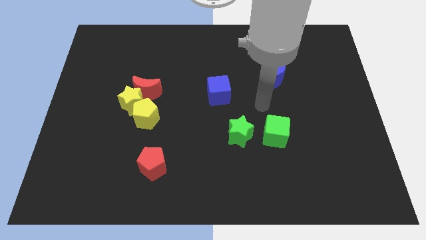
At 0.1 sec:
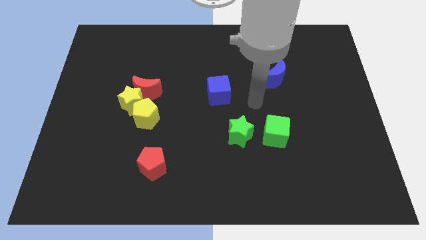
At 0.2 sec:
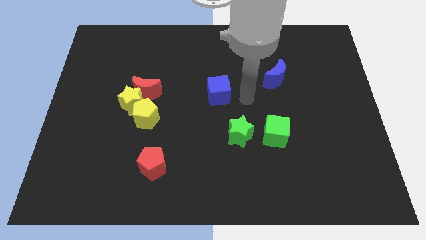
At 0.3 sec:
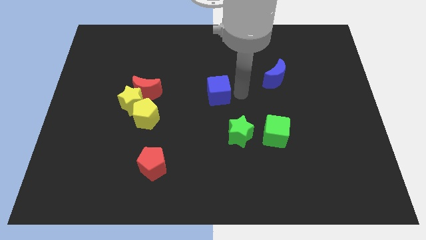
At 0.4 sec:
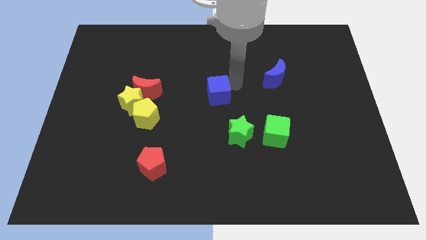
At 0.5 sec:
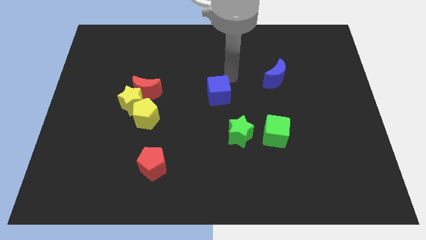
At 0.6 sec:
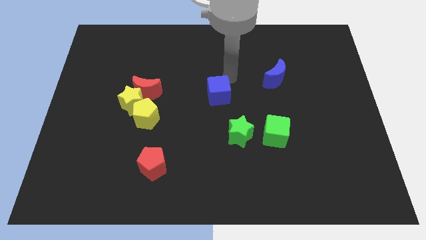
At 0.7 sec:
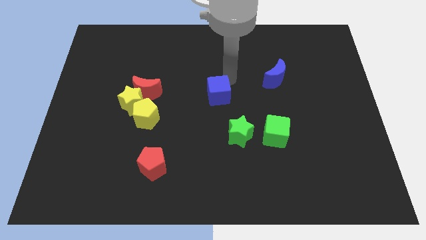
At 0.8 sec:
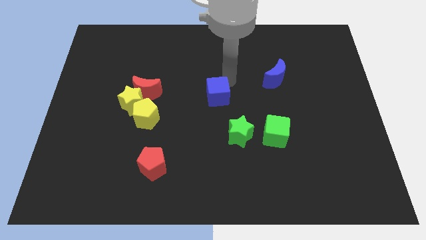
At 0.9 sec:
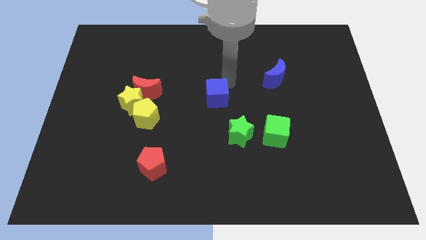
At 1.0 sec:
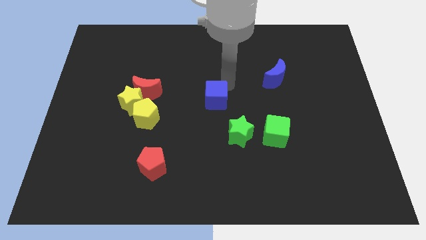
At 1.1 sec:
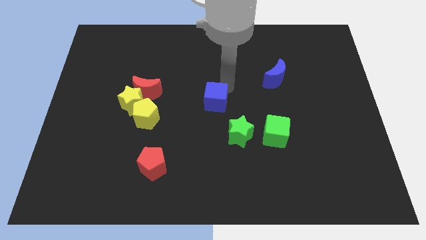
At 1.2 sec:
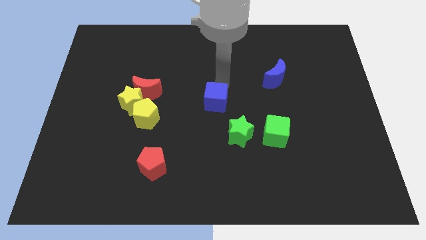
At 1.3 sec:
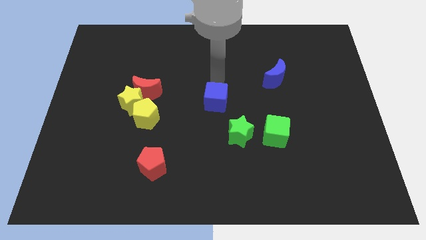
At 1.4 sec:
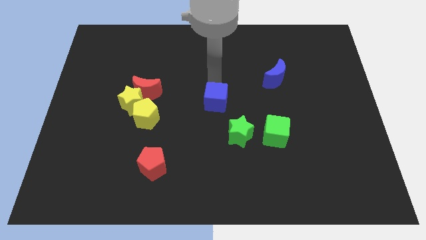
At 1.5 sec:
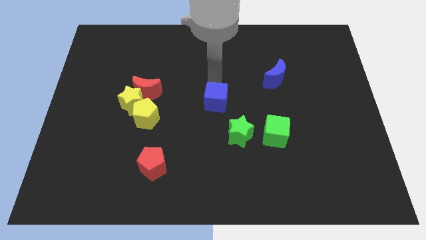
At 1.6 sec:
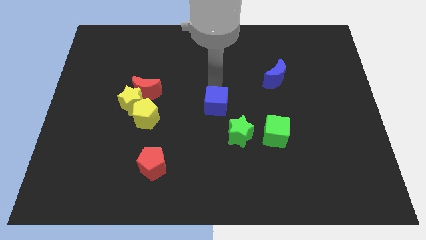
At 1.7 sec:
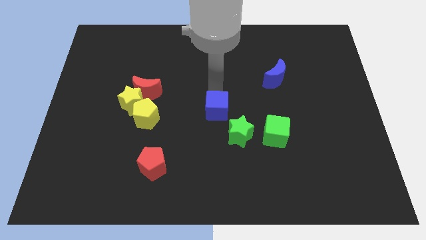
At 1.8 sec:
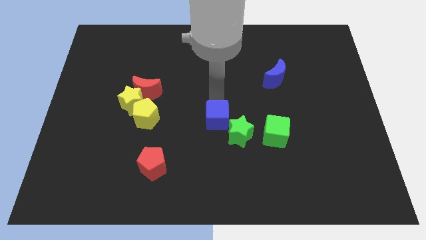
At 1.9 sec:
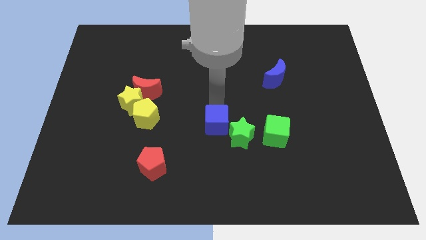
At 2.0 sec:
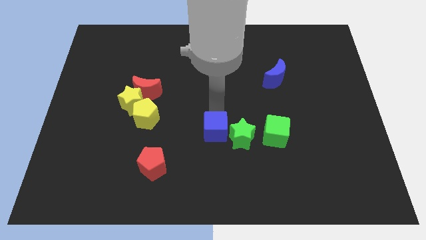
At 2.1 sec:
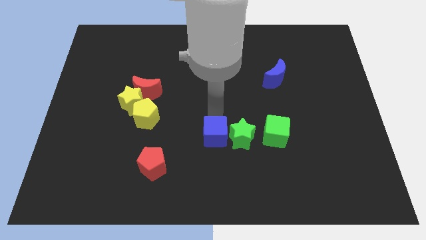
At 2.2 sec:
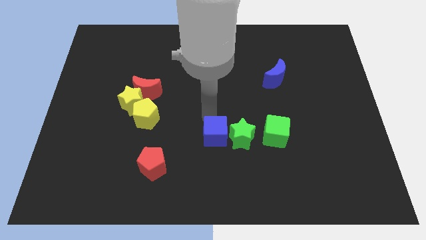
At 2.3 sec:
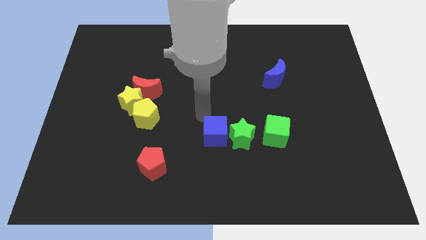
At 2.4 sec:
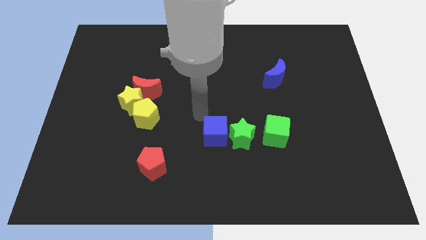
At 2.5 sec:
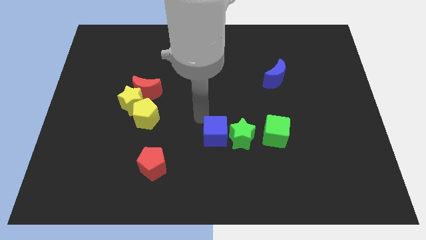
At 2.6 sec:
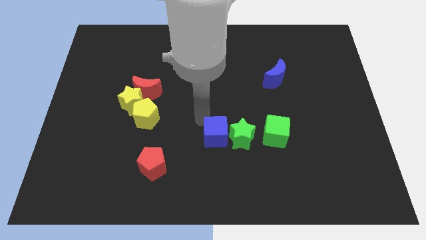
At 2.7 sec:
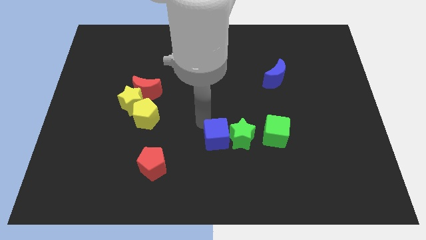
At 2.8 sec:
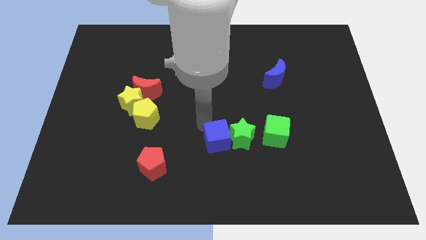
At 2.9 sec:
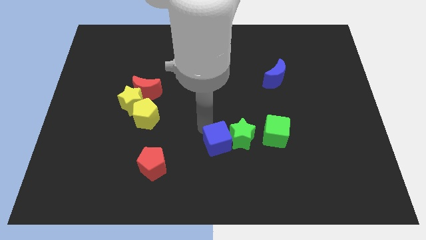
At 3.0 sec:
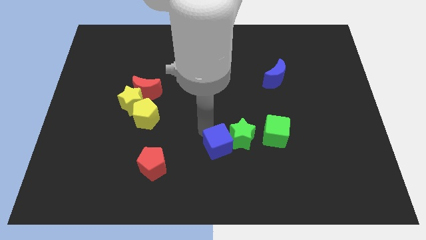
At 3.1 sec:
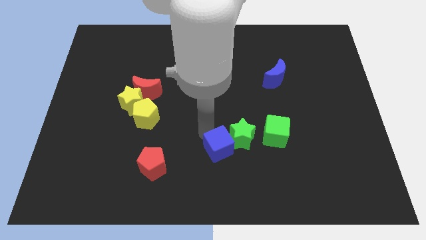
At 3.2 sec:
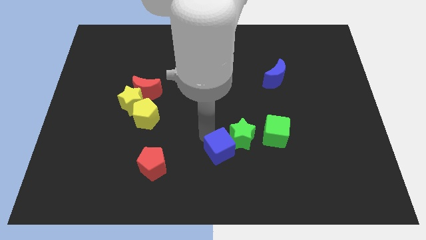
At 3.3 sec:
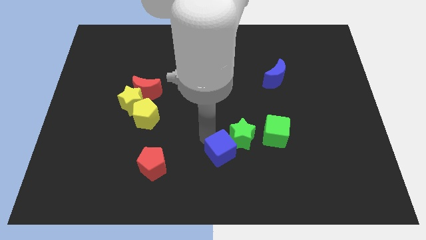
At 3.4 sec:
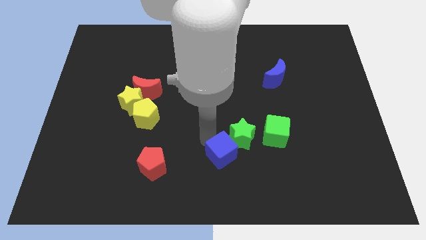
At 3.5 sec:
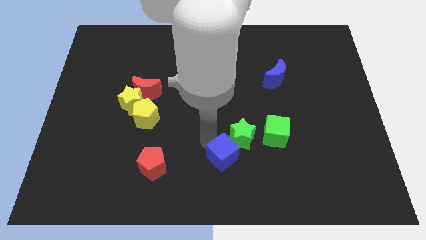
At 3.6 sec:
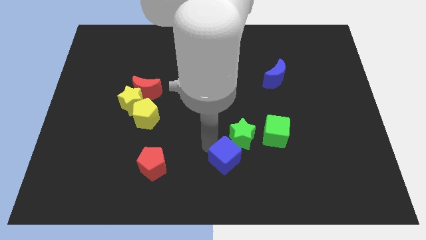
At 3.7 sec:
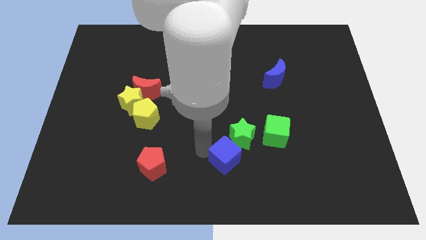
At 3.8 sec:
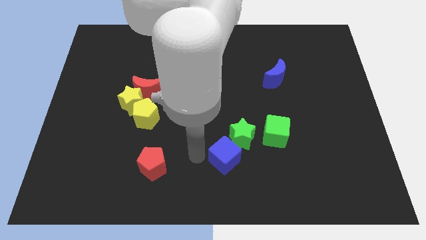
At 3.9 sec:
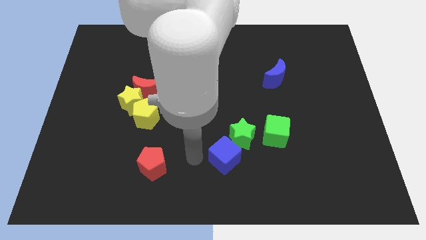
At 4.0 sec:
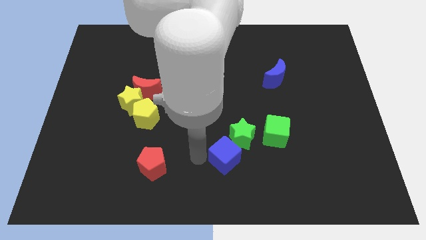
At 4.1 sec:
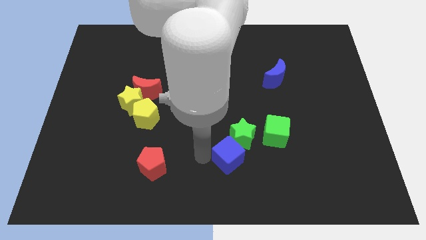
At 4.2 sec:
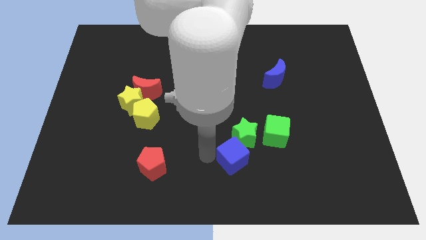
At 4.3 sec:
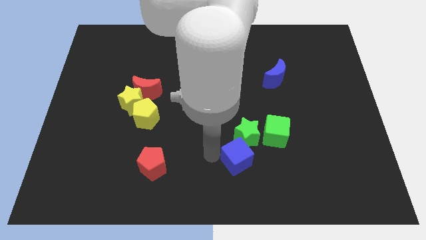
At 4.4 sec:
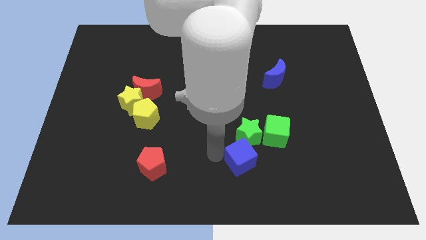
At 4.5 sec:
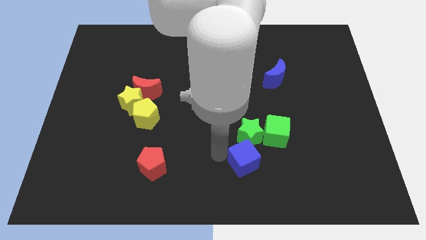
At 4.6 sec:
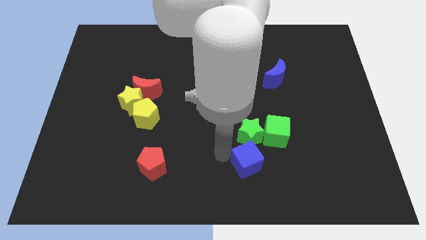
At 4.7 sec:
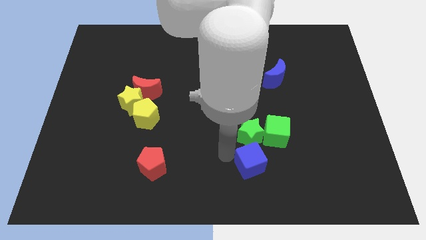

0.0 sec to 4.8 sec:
slide the blue cube to the bottom right of the green star

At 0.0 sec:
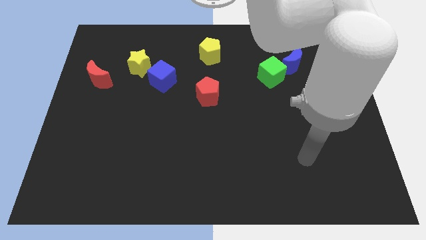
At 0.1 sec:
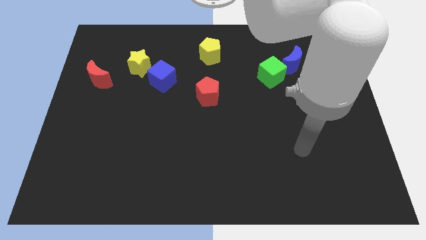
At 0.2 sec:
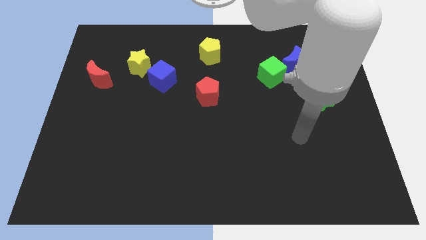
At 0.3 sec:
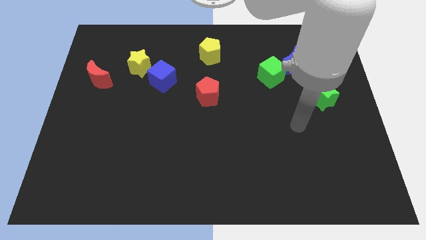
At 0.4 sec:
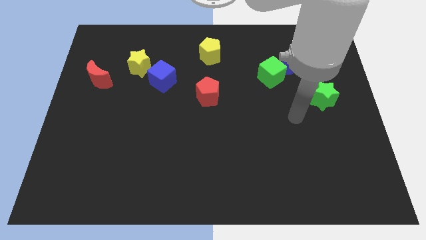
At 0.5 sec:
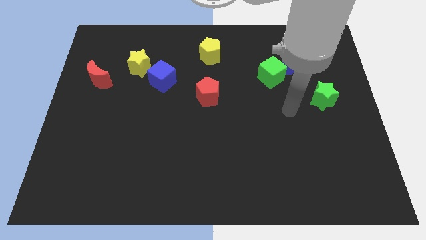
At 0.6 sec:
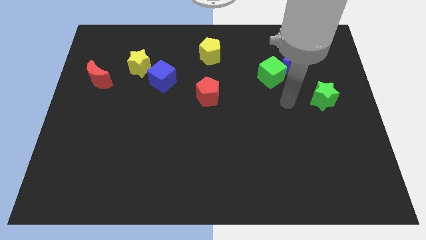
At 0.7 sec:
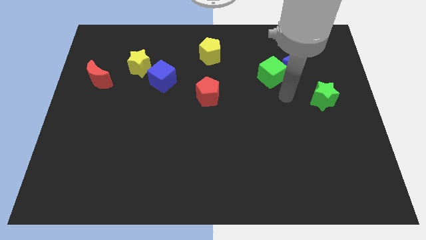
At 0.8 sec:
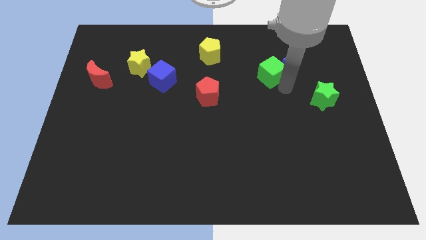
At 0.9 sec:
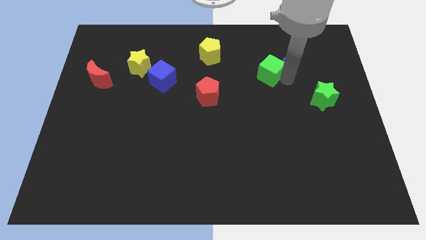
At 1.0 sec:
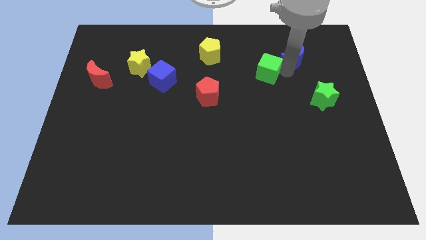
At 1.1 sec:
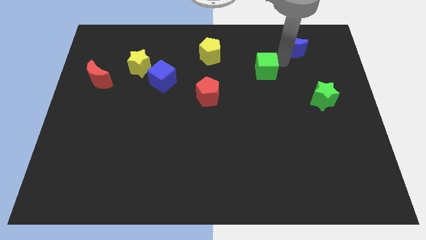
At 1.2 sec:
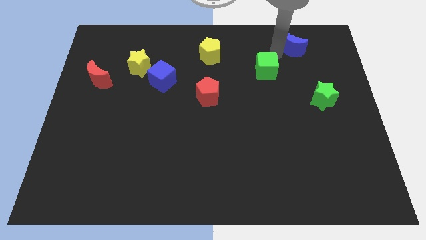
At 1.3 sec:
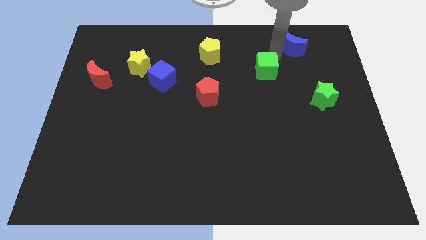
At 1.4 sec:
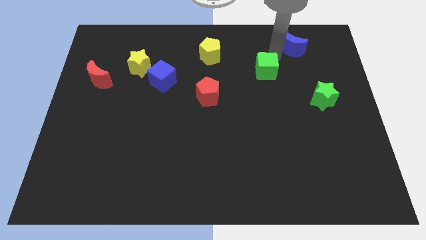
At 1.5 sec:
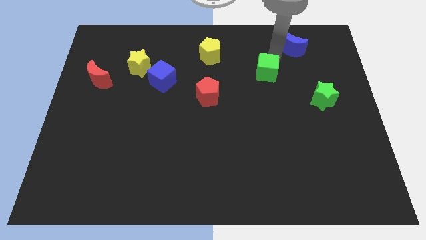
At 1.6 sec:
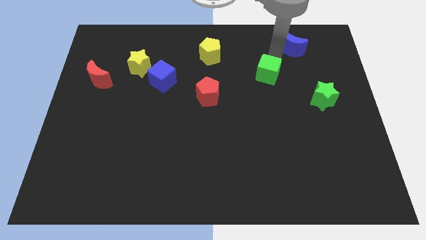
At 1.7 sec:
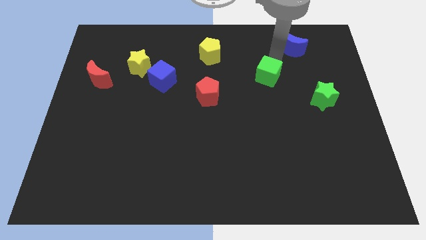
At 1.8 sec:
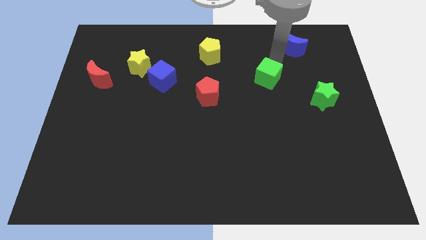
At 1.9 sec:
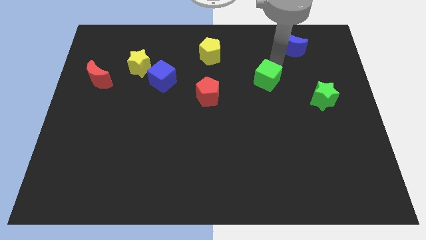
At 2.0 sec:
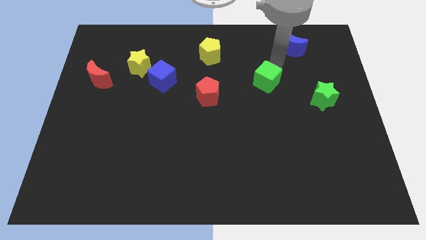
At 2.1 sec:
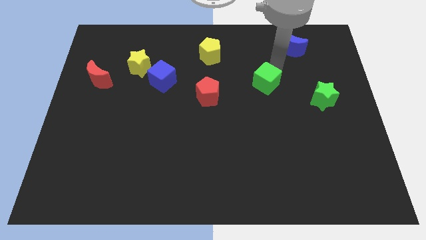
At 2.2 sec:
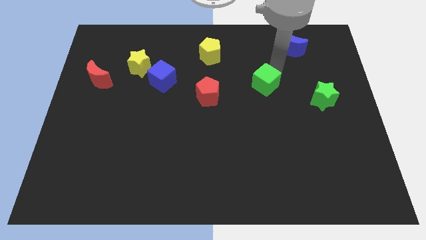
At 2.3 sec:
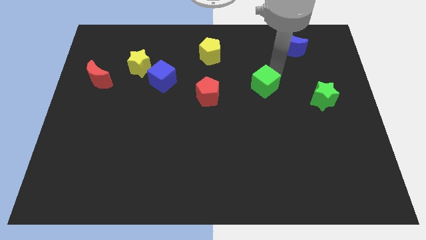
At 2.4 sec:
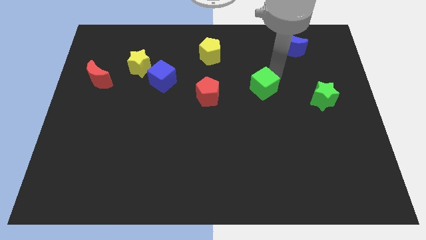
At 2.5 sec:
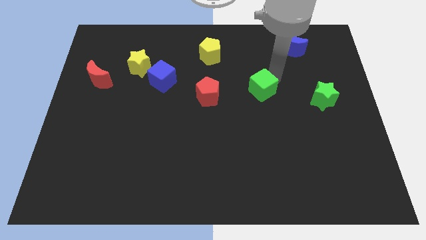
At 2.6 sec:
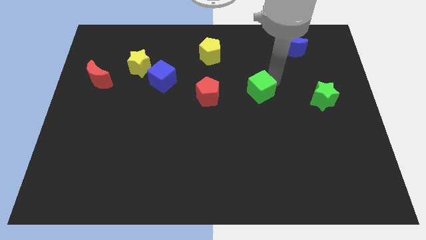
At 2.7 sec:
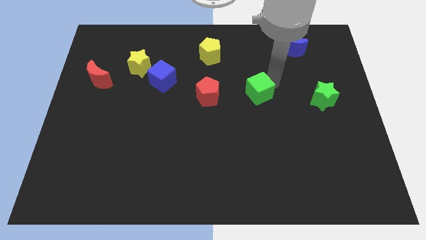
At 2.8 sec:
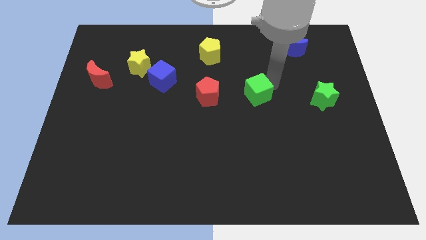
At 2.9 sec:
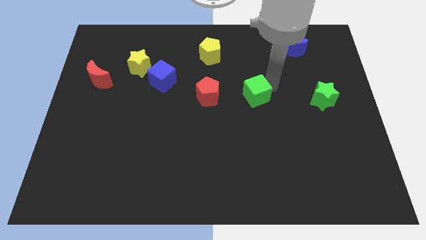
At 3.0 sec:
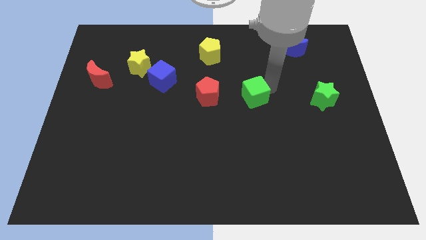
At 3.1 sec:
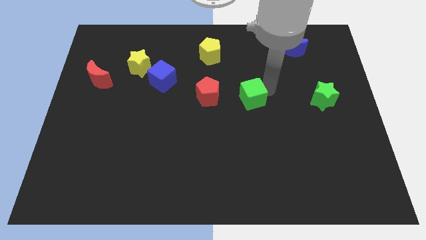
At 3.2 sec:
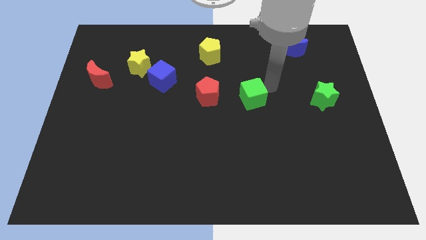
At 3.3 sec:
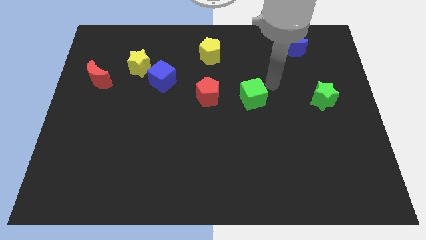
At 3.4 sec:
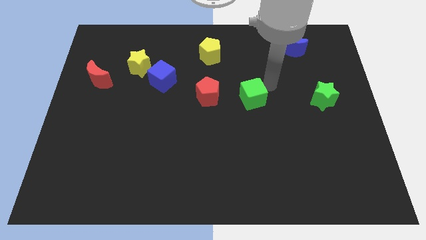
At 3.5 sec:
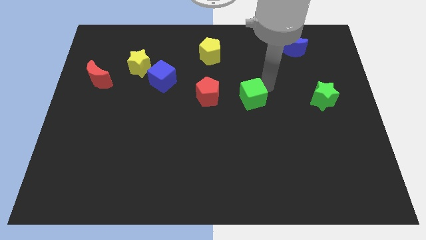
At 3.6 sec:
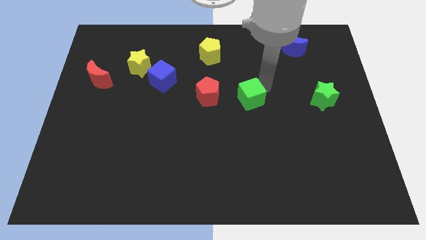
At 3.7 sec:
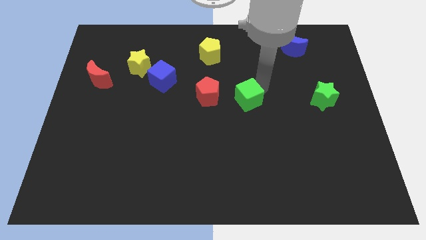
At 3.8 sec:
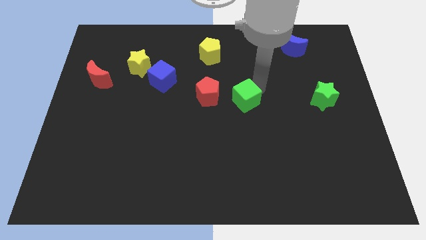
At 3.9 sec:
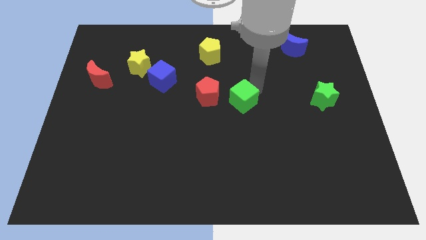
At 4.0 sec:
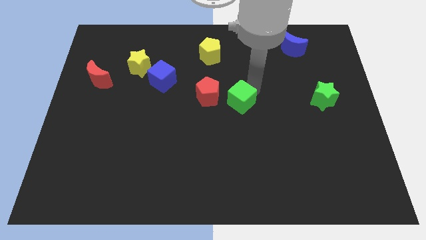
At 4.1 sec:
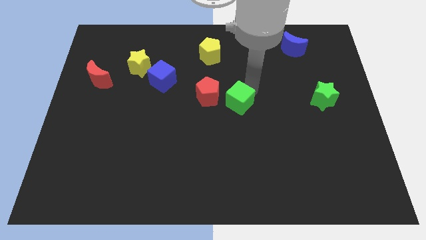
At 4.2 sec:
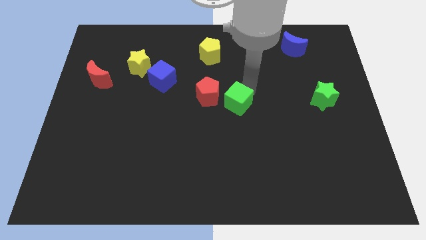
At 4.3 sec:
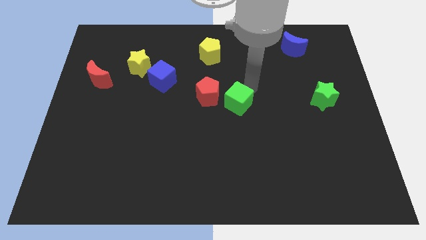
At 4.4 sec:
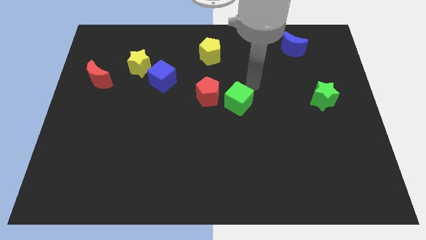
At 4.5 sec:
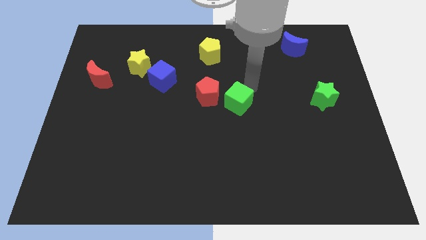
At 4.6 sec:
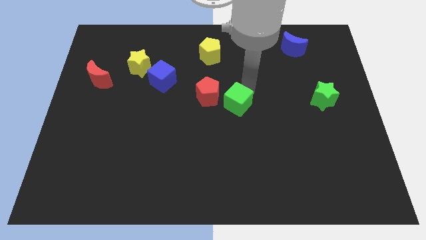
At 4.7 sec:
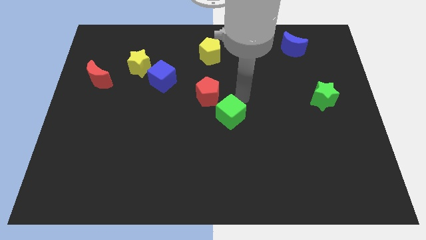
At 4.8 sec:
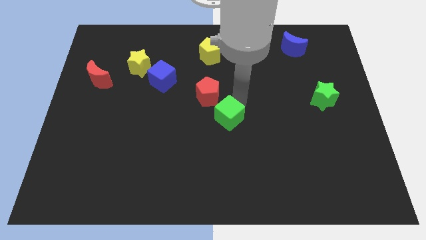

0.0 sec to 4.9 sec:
put the green cube below the red pentagon
